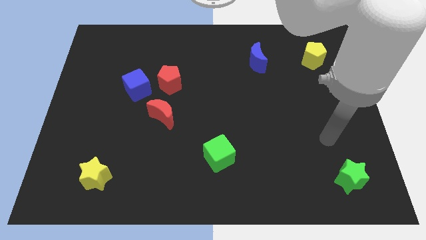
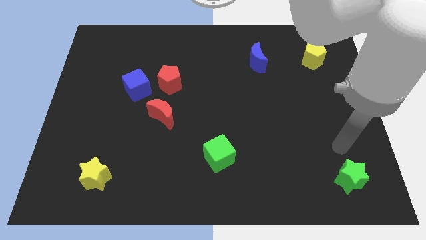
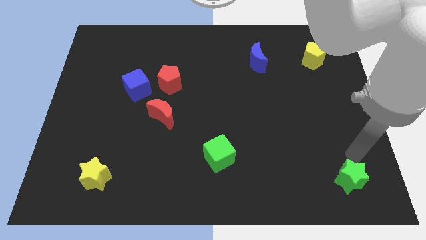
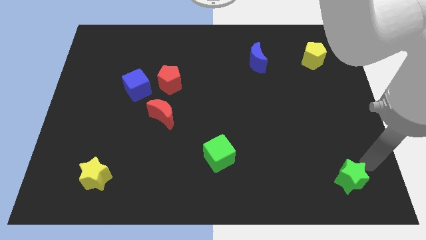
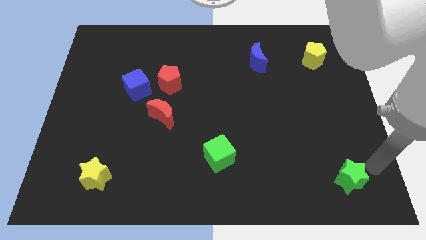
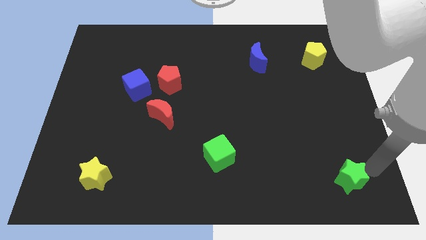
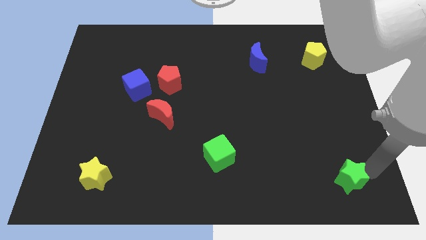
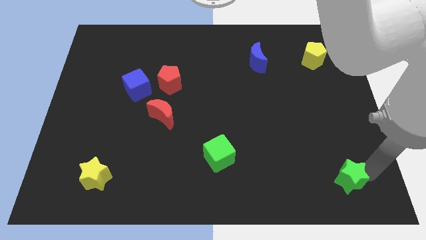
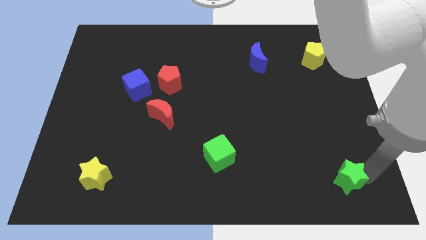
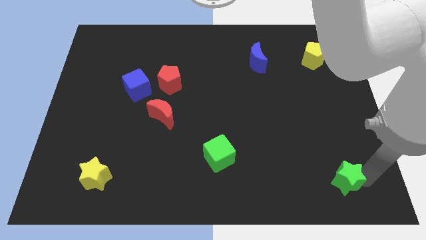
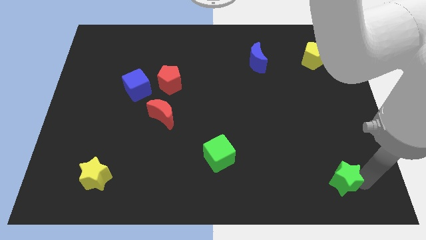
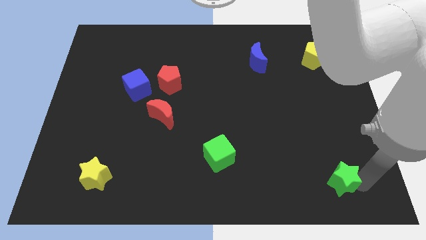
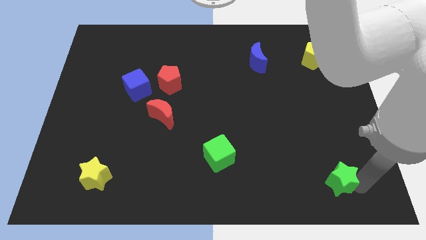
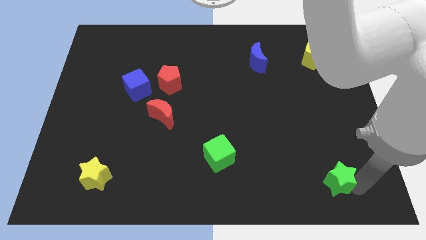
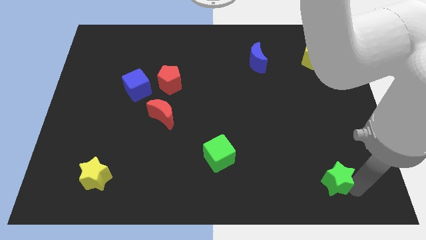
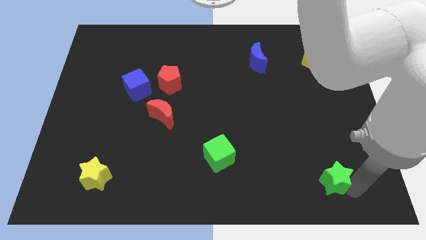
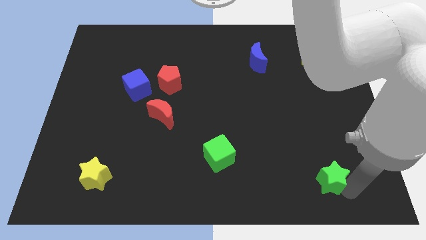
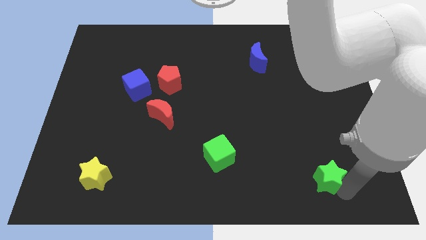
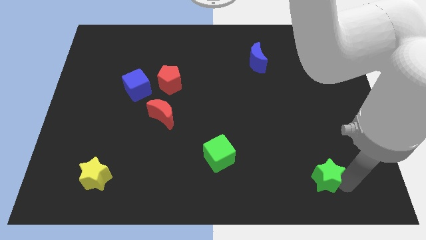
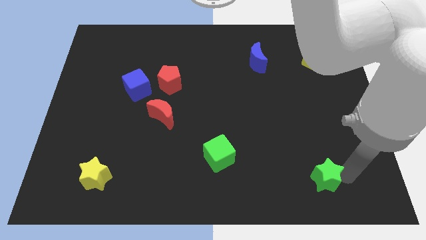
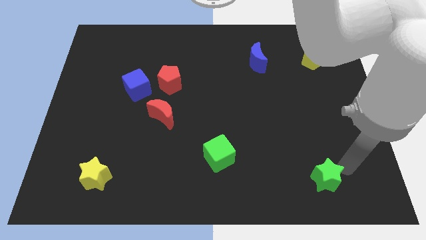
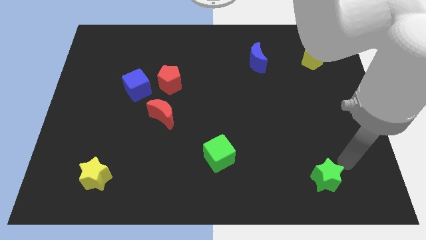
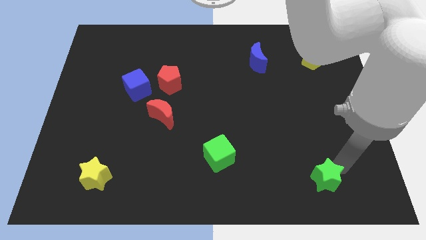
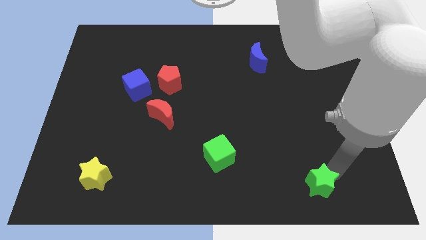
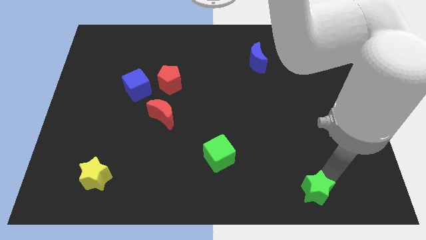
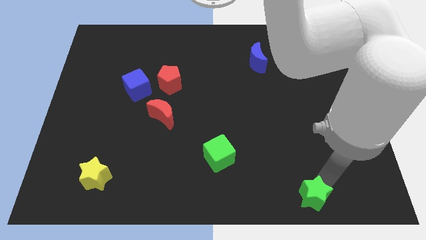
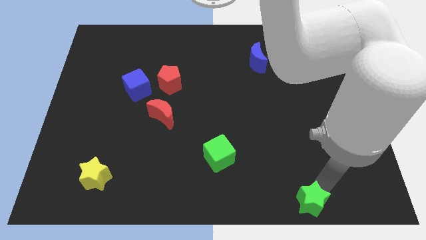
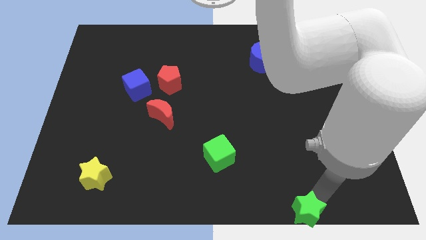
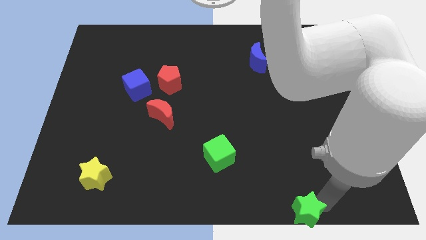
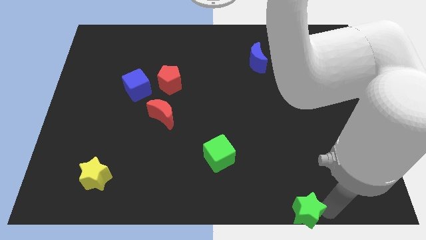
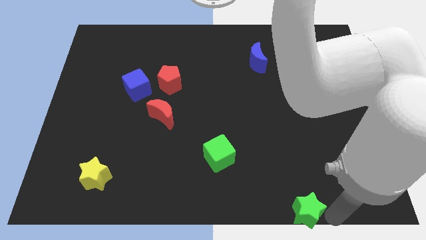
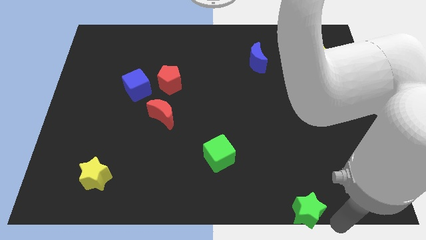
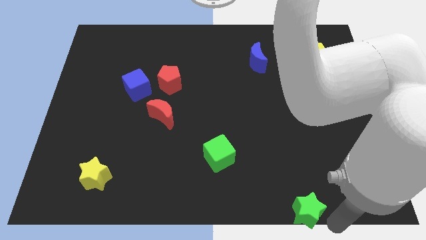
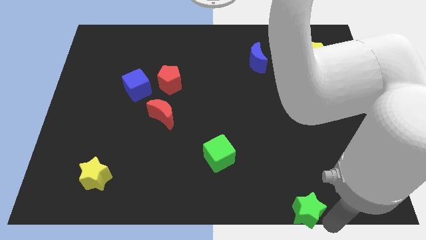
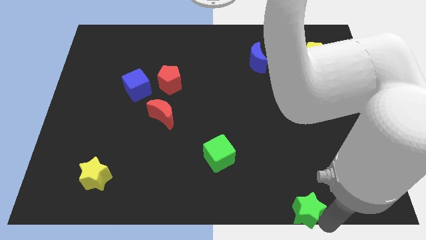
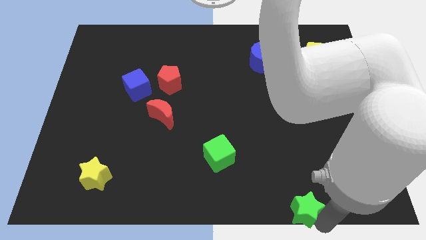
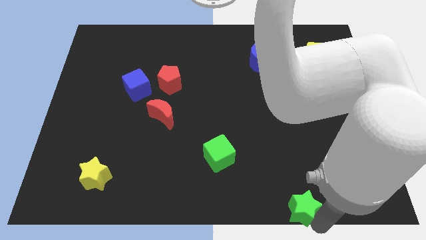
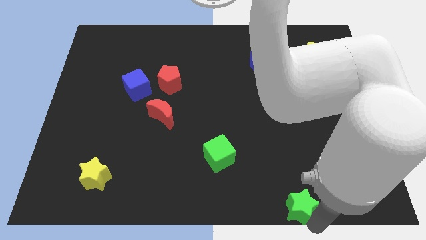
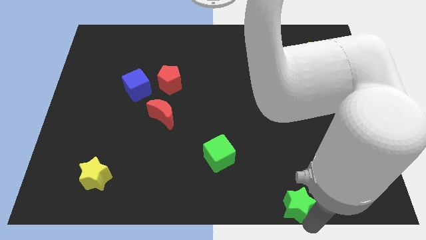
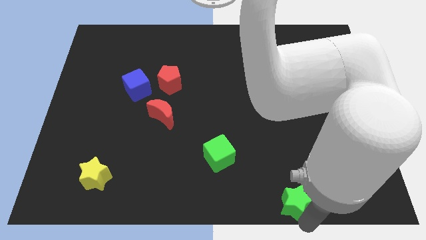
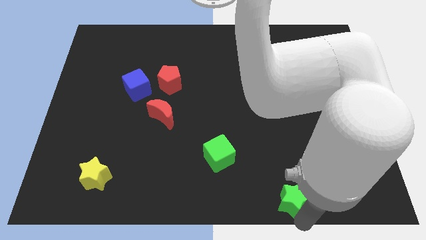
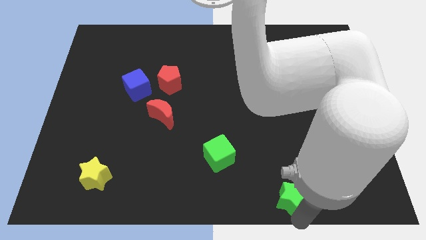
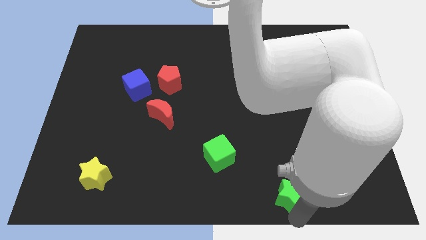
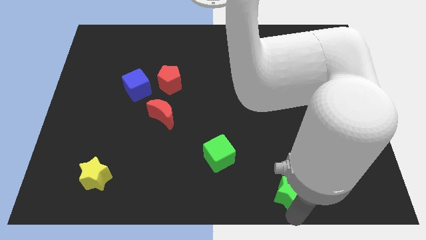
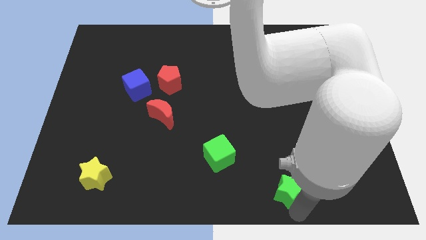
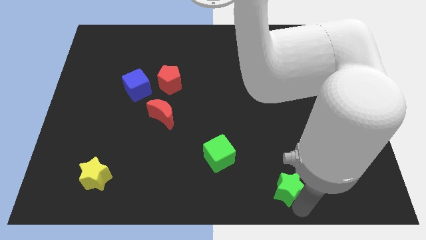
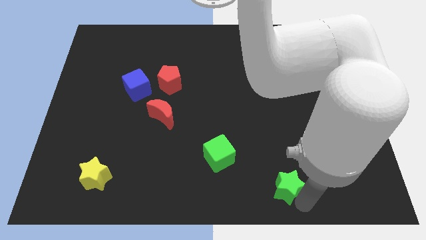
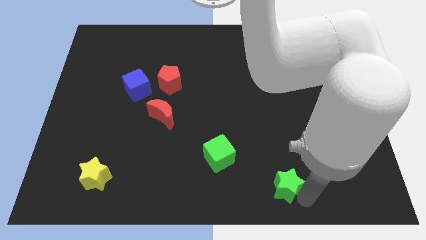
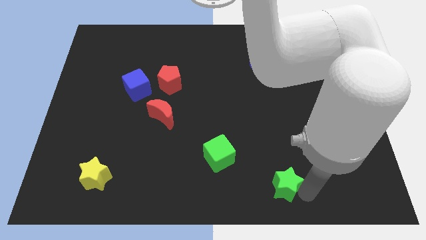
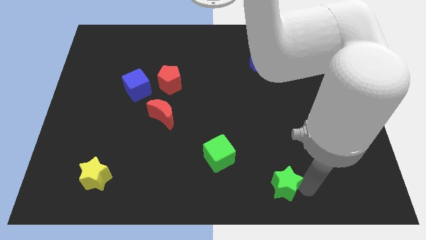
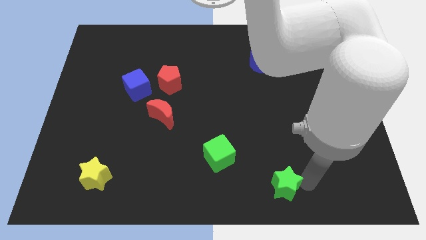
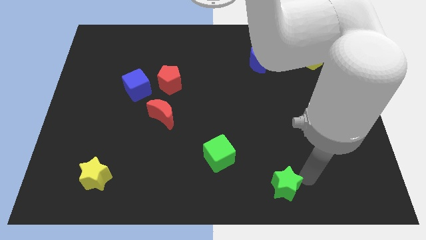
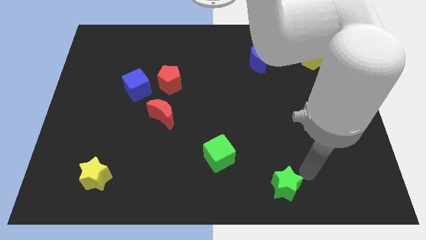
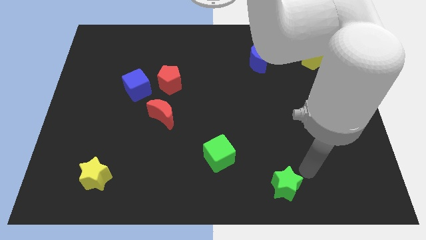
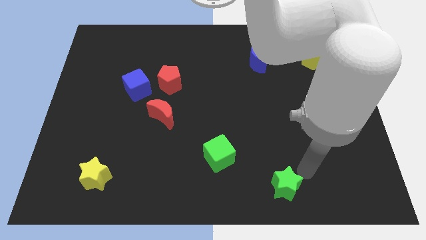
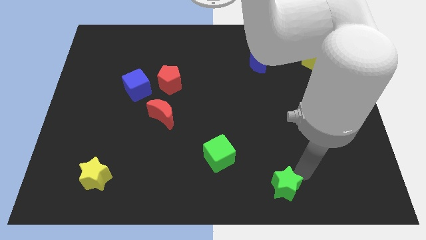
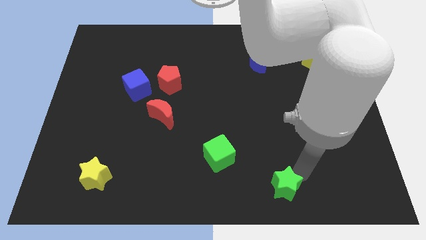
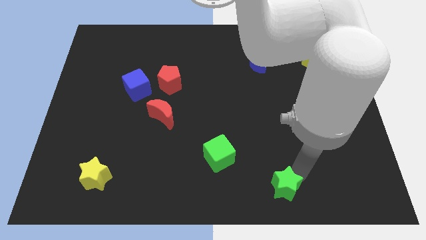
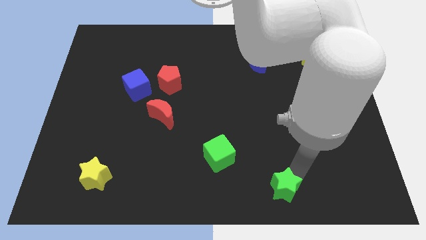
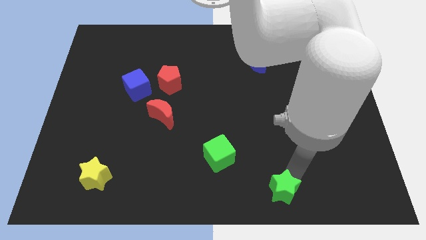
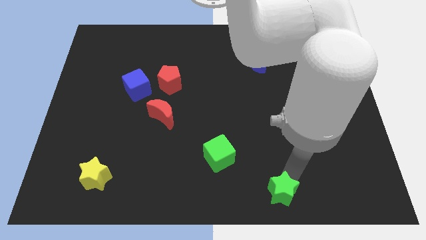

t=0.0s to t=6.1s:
slide the green star to the bottom side

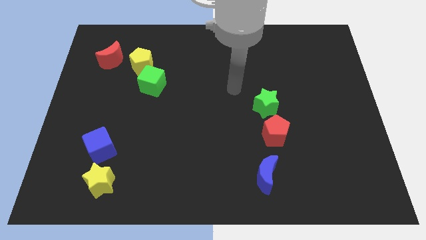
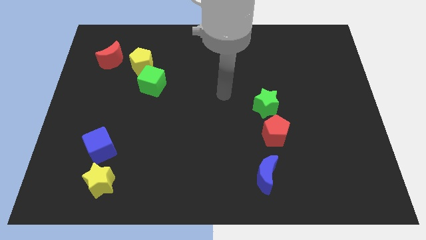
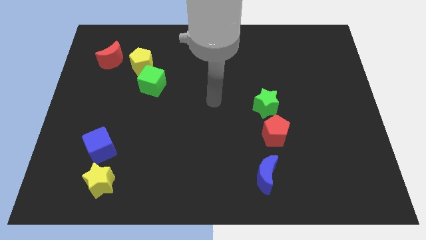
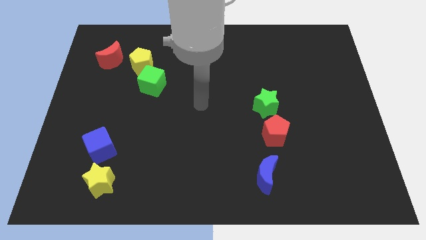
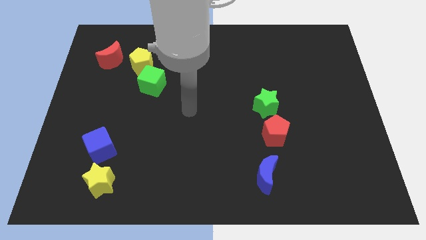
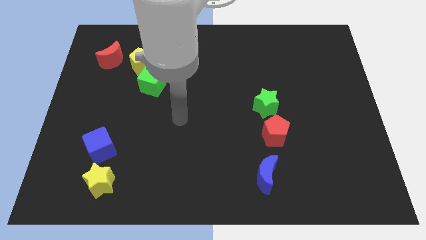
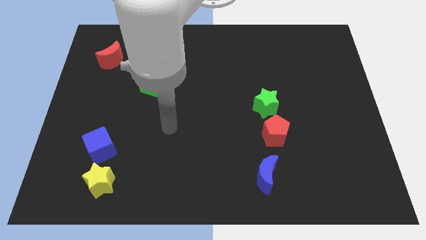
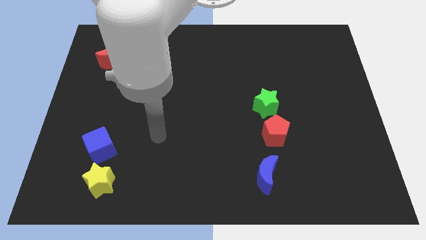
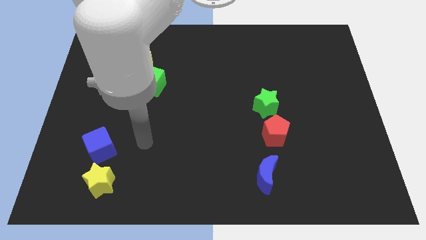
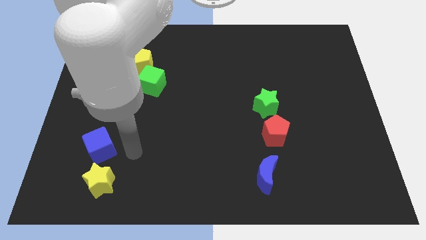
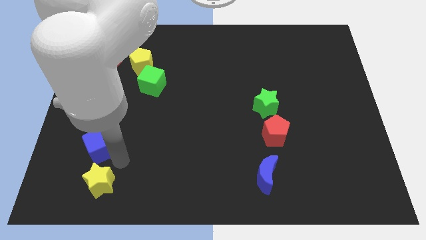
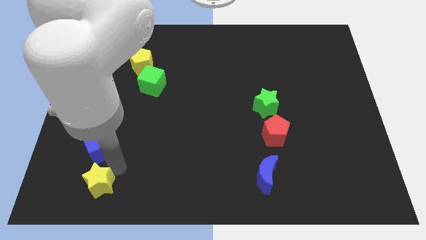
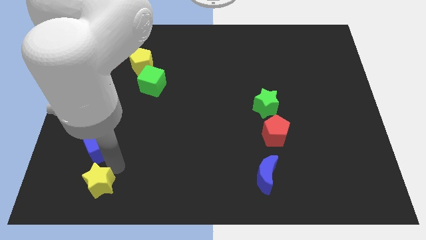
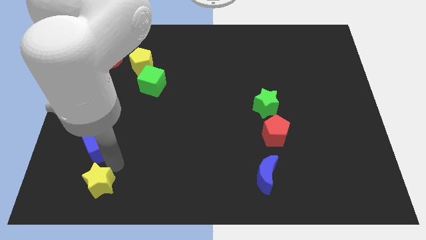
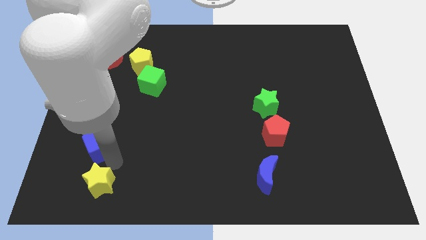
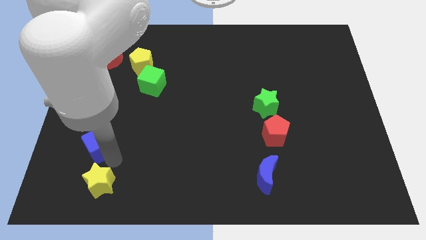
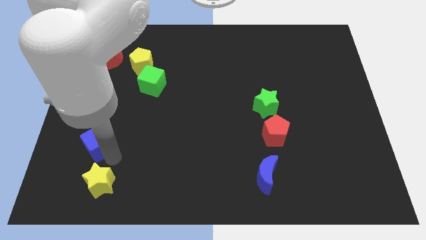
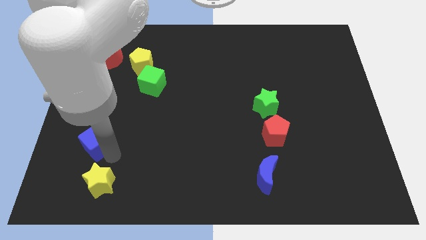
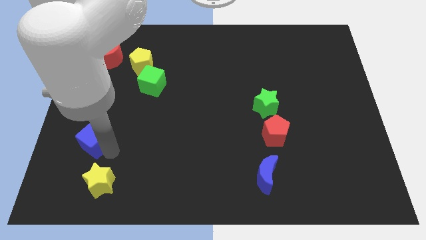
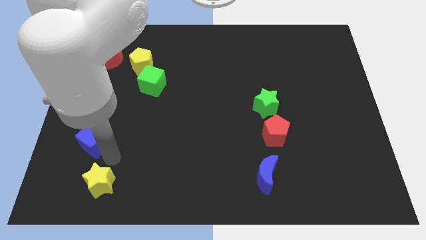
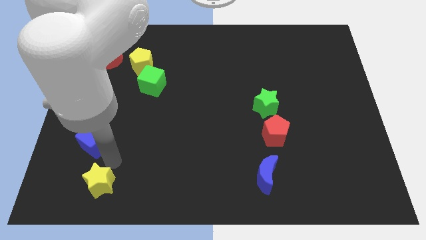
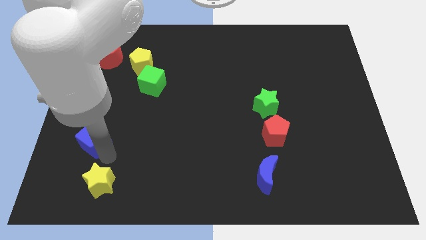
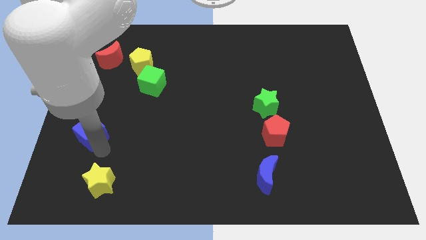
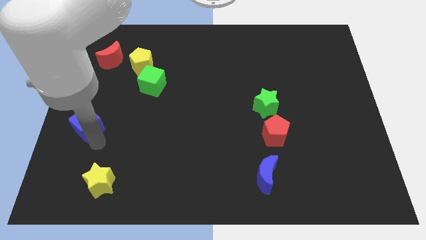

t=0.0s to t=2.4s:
put the blue cube to the center left
